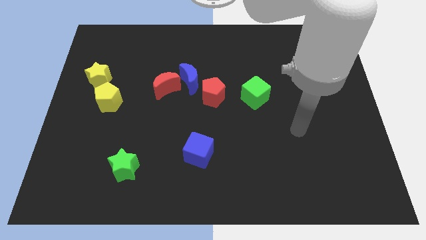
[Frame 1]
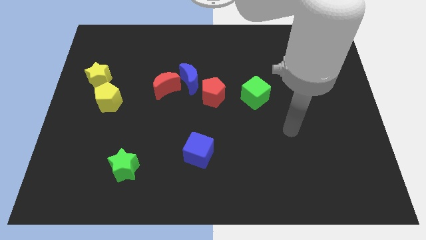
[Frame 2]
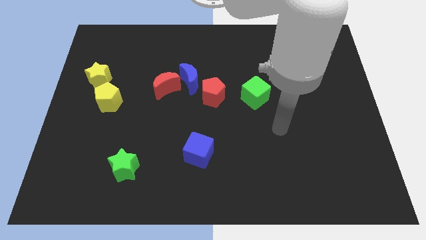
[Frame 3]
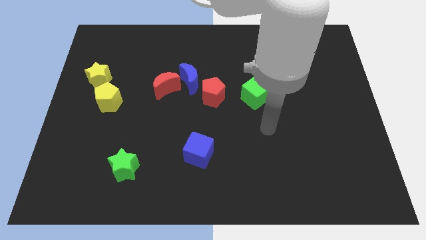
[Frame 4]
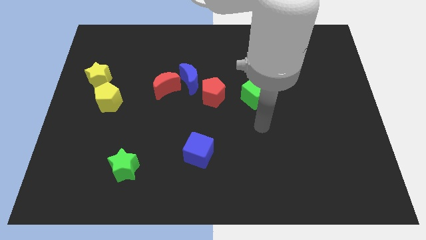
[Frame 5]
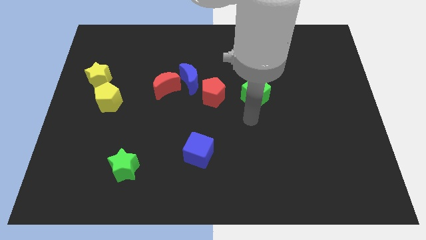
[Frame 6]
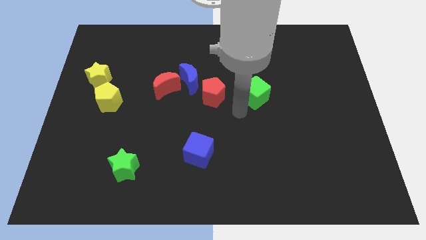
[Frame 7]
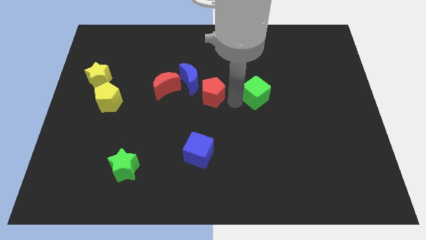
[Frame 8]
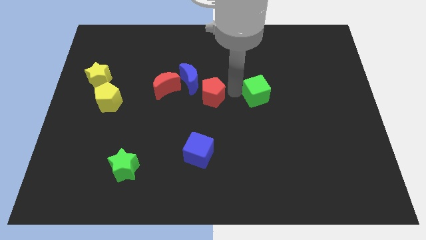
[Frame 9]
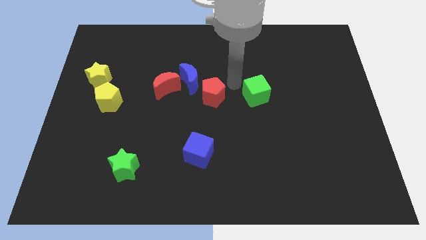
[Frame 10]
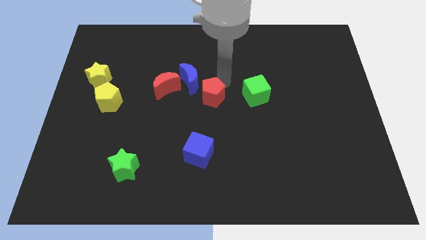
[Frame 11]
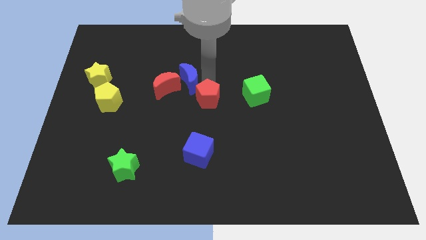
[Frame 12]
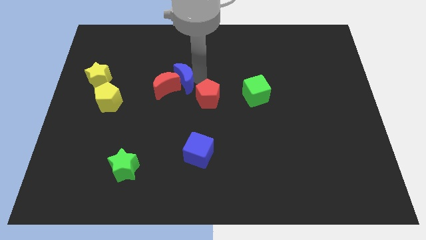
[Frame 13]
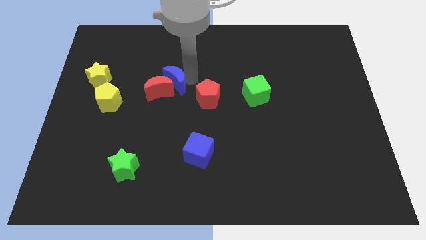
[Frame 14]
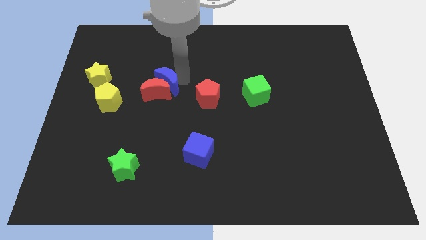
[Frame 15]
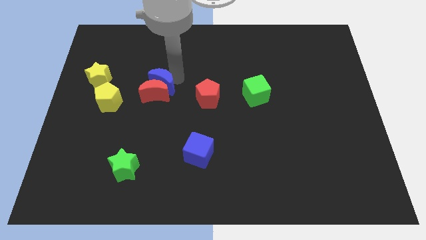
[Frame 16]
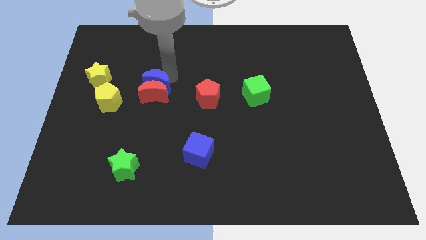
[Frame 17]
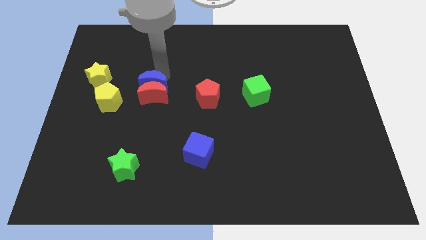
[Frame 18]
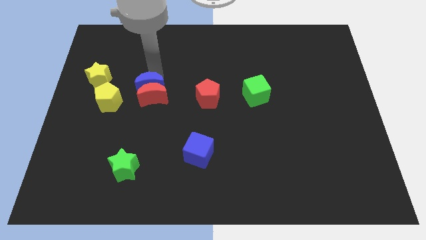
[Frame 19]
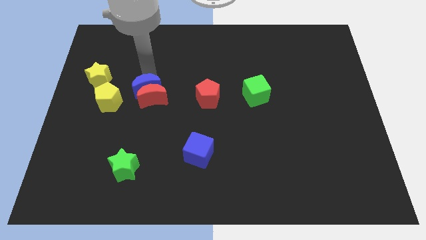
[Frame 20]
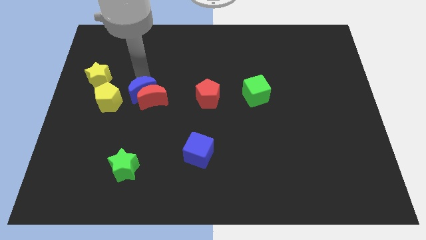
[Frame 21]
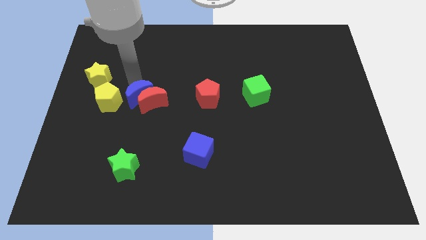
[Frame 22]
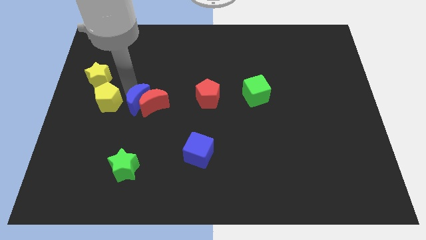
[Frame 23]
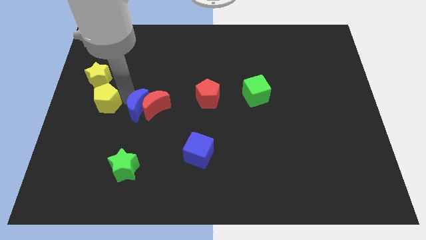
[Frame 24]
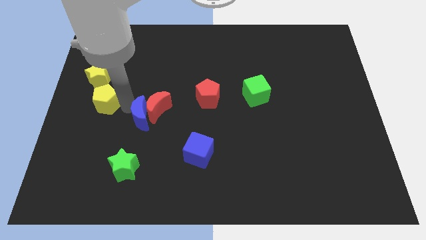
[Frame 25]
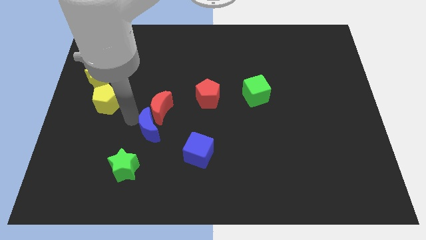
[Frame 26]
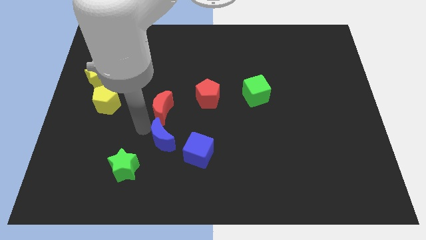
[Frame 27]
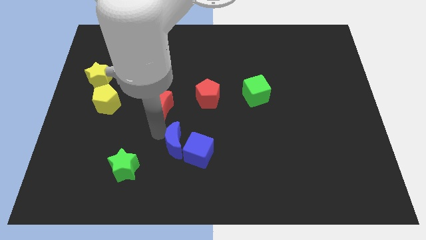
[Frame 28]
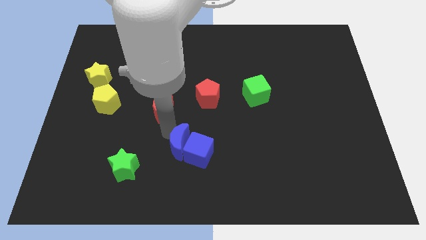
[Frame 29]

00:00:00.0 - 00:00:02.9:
move the red moon away from the blue moon

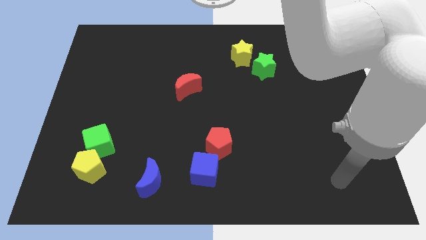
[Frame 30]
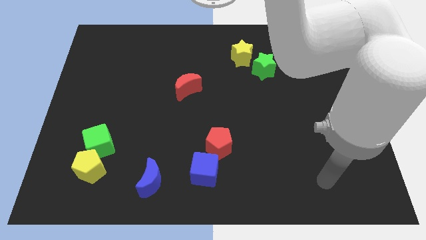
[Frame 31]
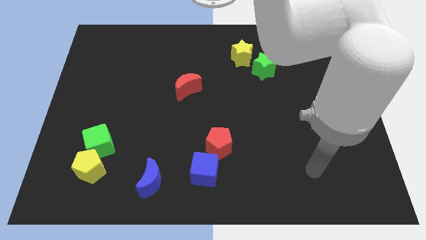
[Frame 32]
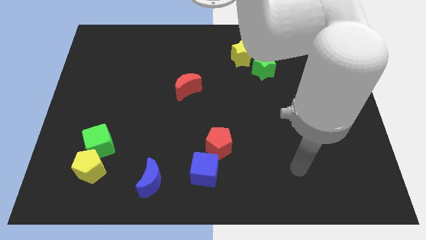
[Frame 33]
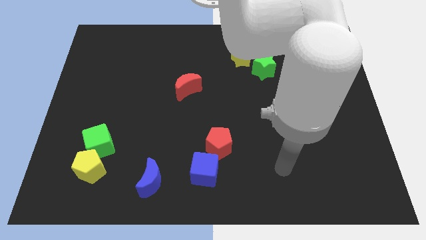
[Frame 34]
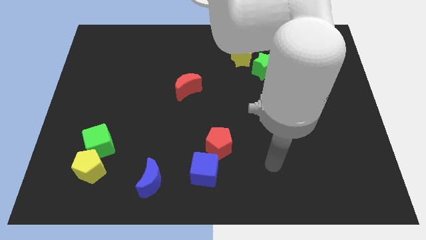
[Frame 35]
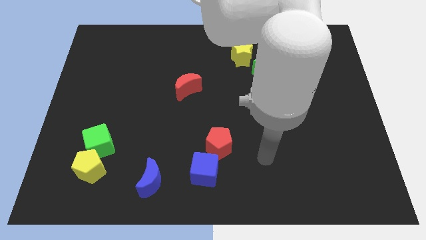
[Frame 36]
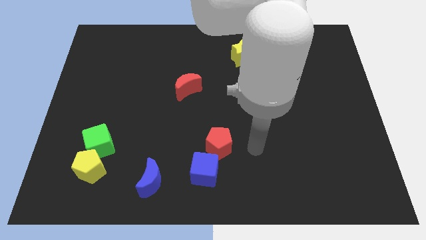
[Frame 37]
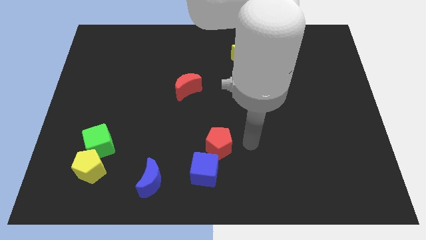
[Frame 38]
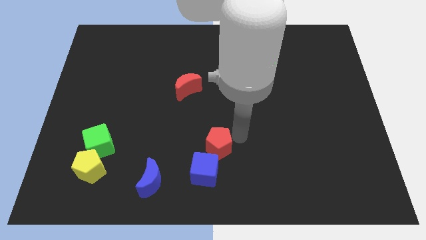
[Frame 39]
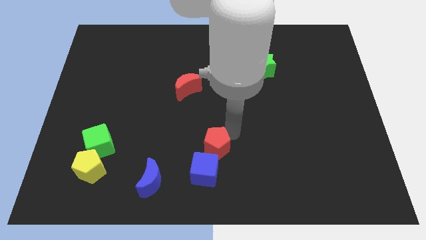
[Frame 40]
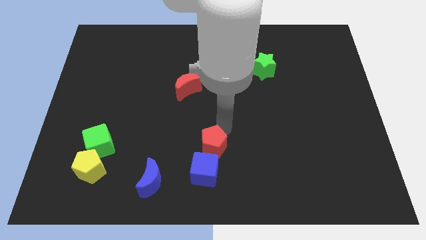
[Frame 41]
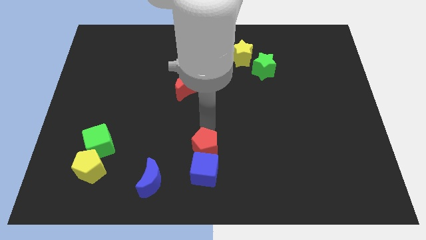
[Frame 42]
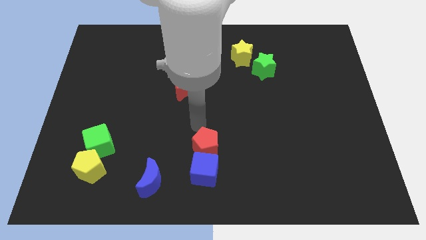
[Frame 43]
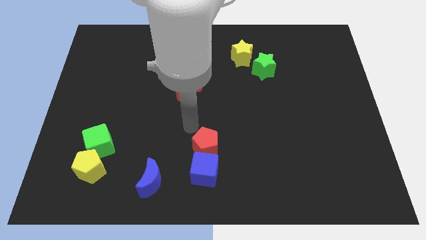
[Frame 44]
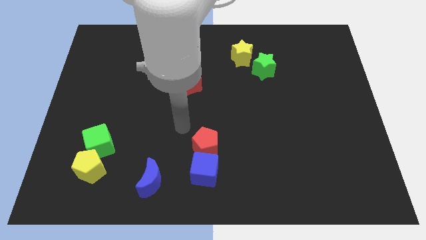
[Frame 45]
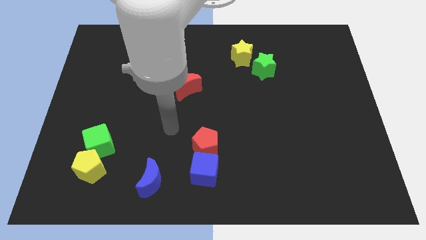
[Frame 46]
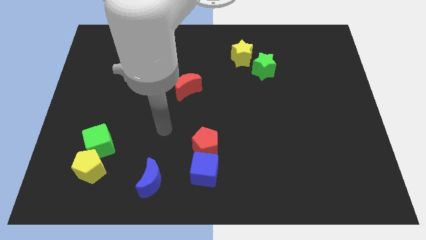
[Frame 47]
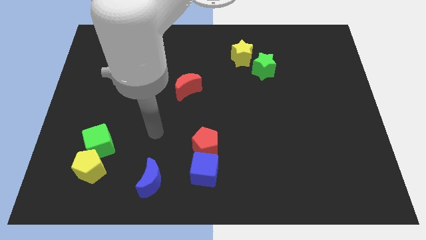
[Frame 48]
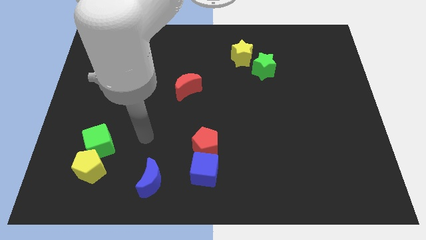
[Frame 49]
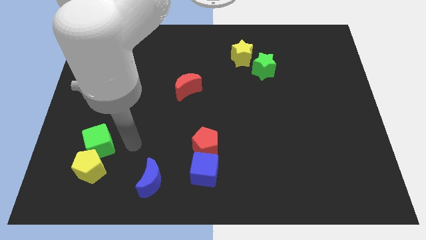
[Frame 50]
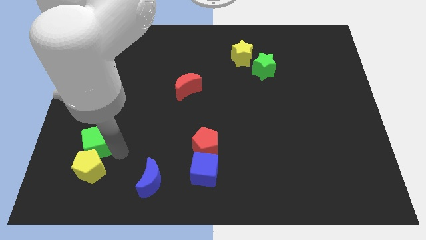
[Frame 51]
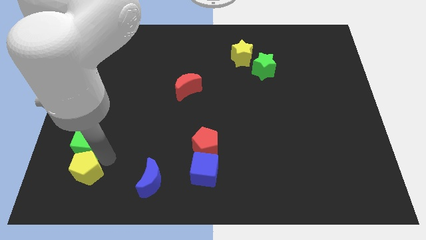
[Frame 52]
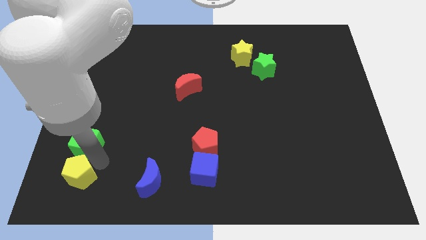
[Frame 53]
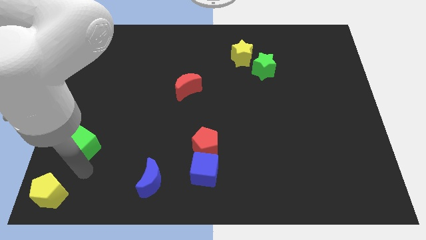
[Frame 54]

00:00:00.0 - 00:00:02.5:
pull the green cube apart from the yellow pentagon

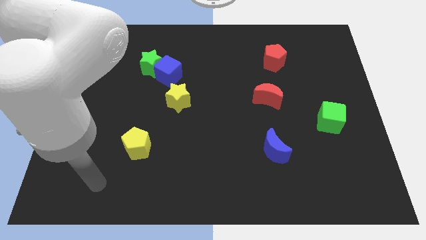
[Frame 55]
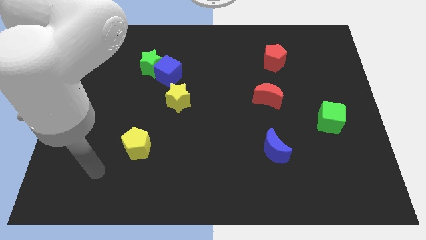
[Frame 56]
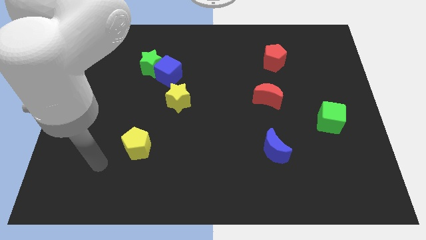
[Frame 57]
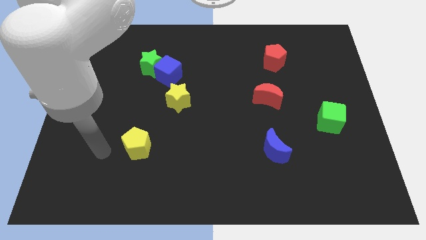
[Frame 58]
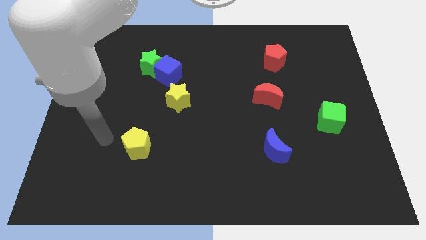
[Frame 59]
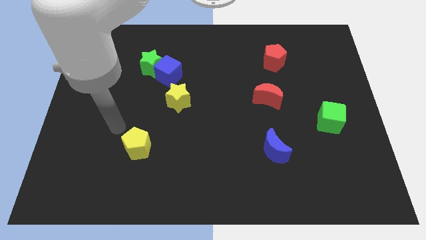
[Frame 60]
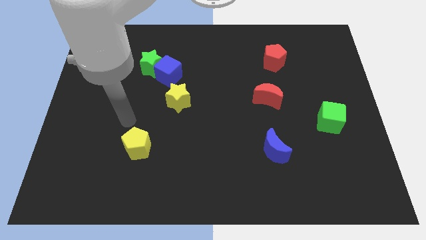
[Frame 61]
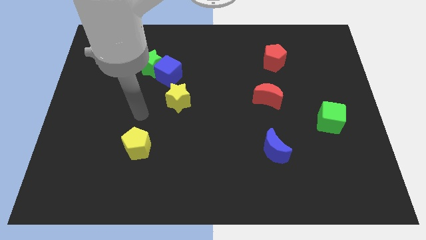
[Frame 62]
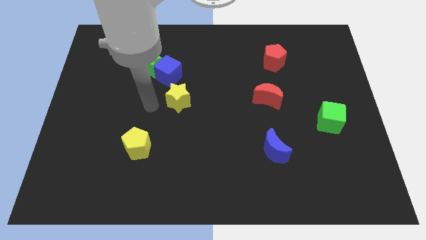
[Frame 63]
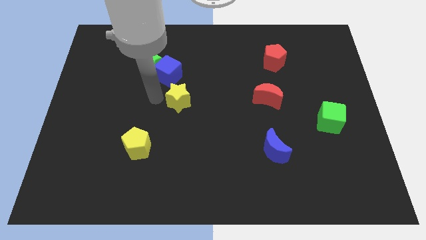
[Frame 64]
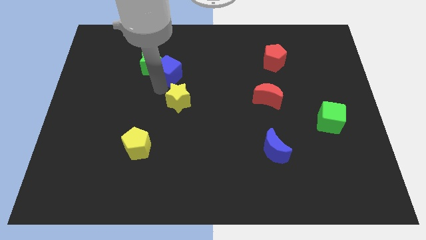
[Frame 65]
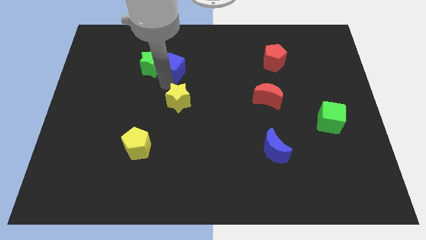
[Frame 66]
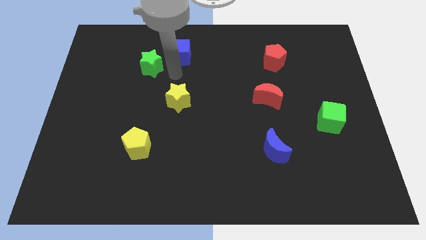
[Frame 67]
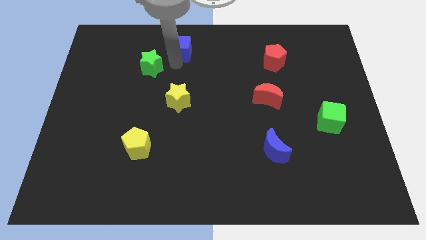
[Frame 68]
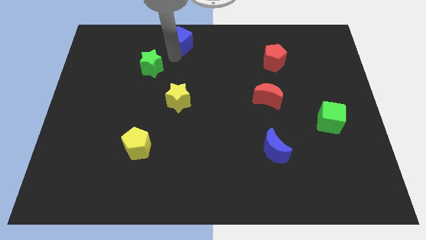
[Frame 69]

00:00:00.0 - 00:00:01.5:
pull the green star apart from the blue cube

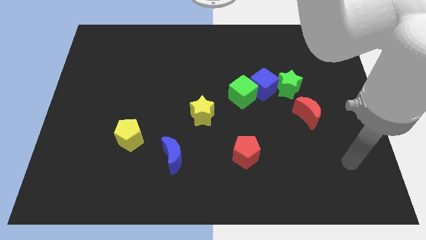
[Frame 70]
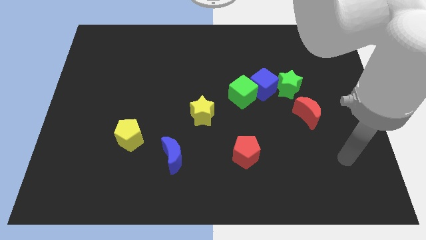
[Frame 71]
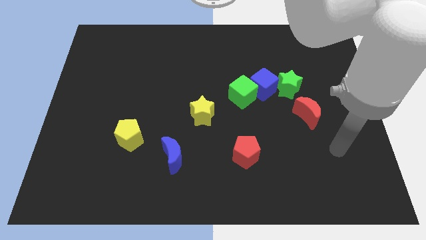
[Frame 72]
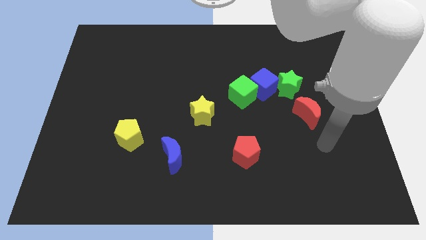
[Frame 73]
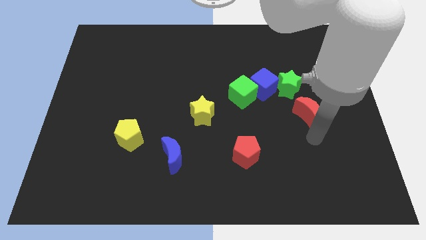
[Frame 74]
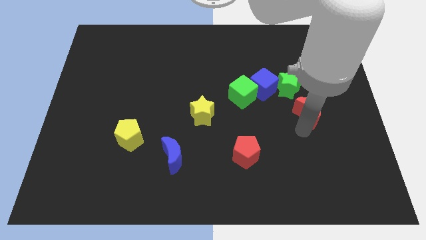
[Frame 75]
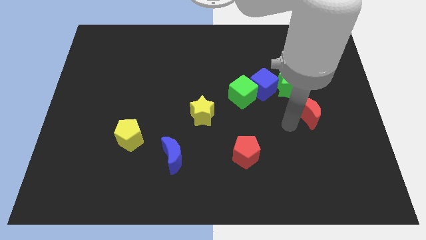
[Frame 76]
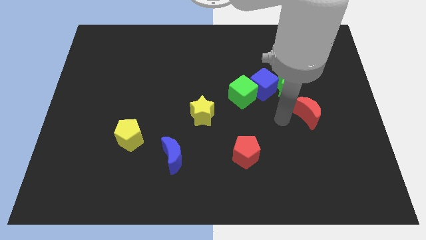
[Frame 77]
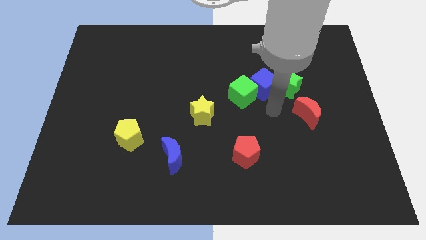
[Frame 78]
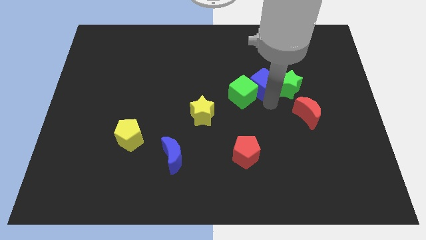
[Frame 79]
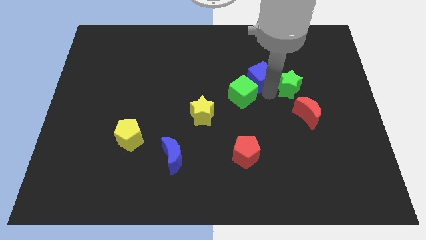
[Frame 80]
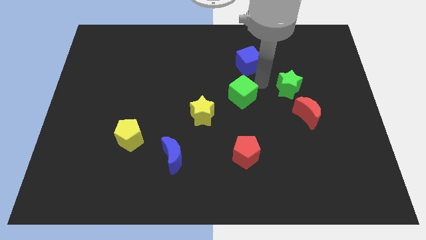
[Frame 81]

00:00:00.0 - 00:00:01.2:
pull the green cube apart from the blue cube

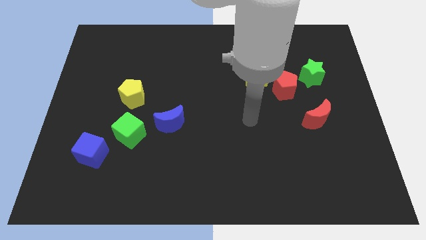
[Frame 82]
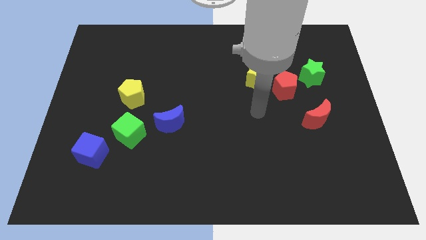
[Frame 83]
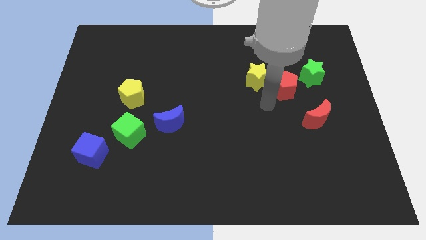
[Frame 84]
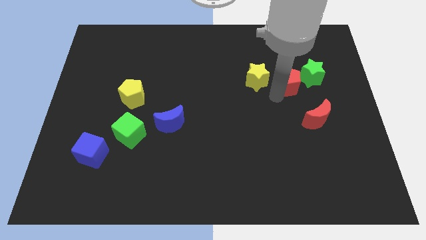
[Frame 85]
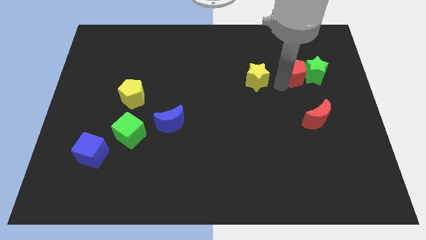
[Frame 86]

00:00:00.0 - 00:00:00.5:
move the yellow star away from the red pentagon

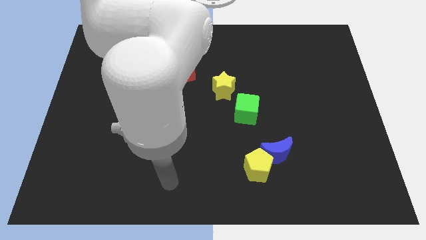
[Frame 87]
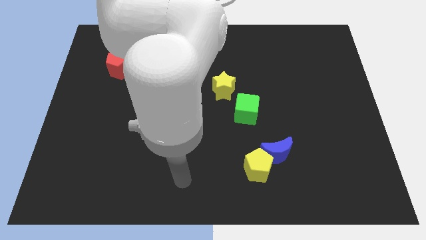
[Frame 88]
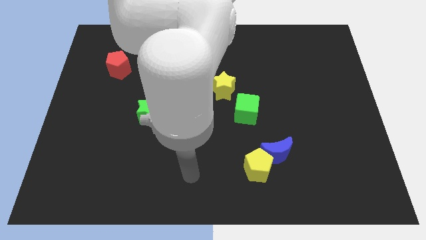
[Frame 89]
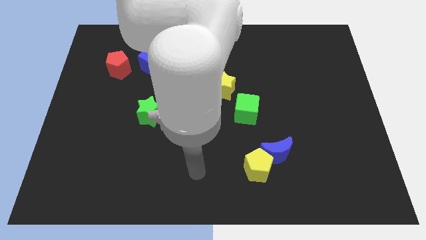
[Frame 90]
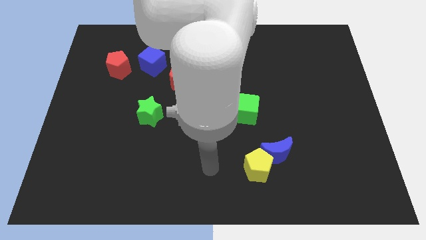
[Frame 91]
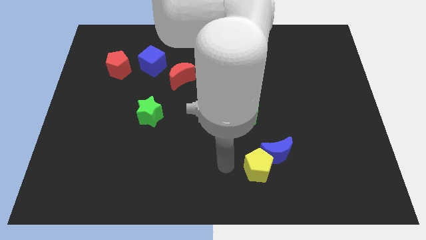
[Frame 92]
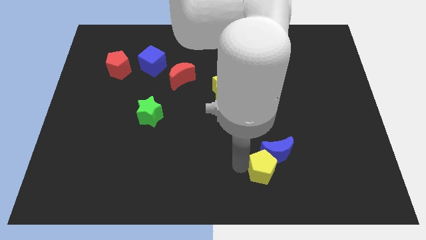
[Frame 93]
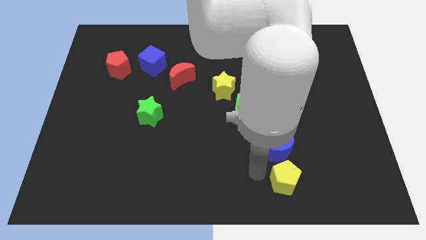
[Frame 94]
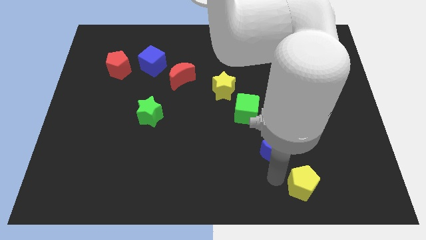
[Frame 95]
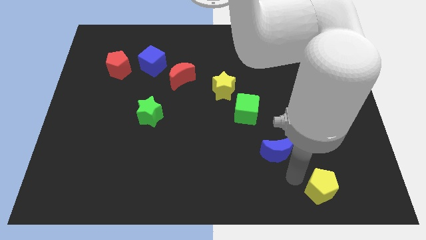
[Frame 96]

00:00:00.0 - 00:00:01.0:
separate the blue moon from the yellow pentagon
